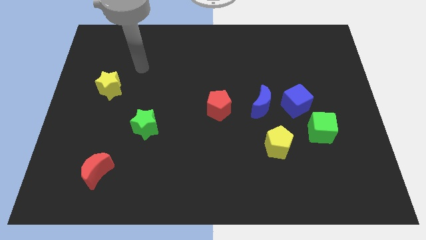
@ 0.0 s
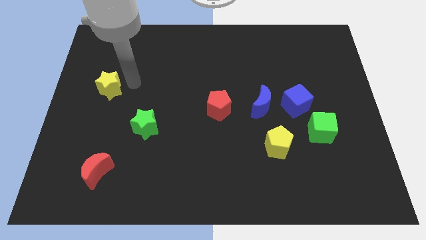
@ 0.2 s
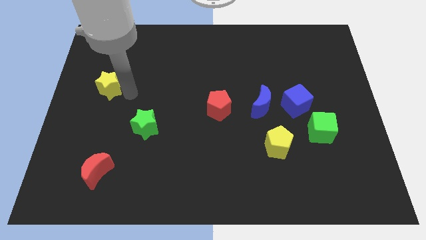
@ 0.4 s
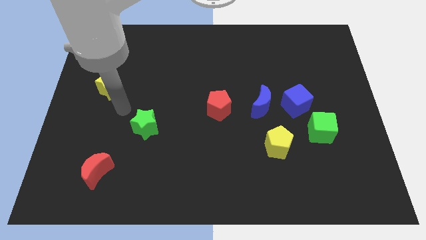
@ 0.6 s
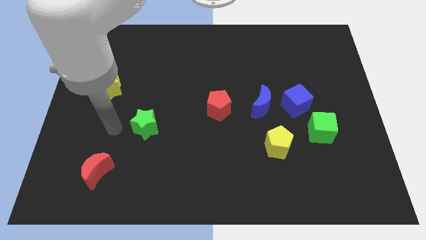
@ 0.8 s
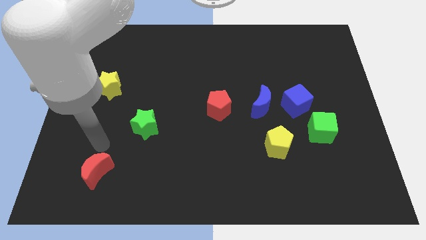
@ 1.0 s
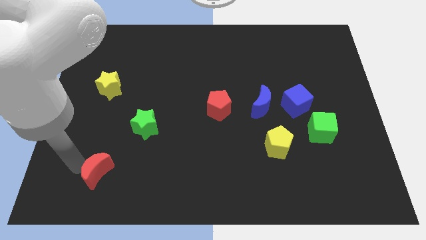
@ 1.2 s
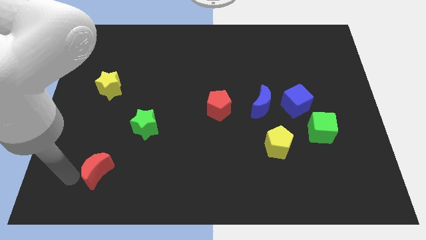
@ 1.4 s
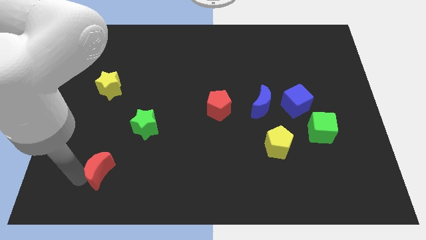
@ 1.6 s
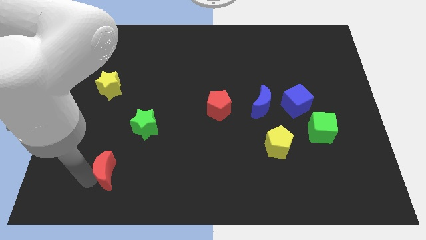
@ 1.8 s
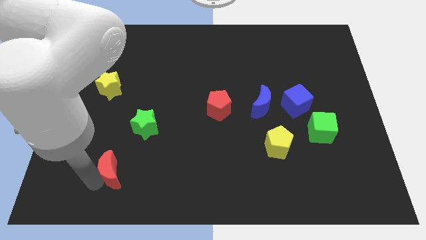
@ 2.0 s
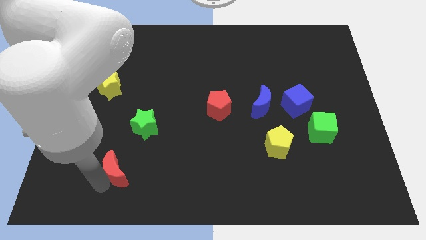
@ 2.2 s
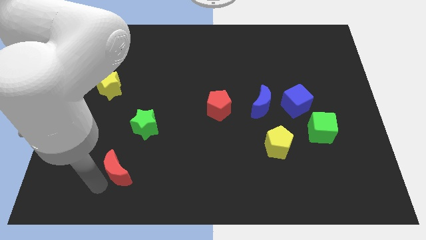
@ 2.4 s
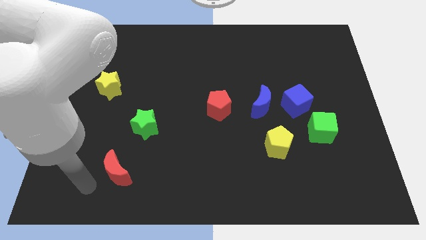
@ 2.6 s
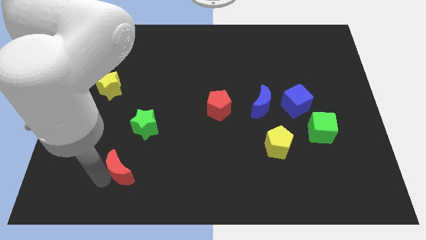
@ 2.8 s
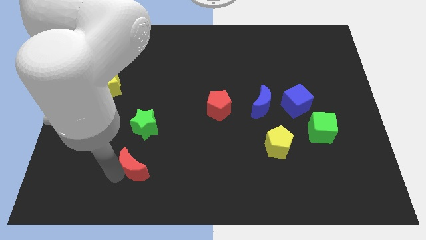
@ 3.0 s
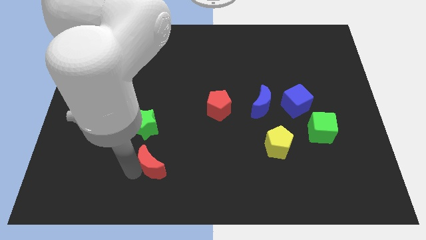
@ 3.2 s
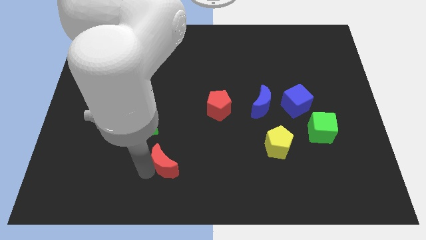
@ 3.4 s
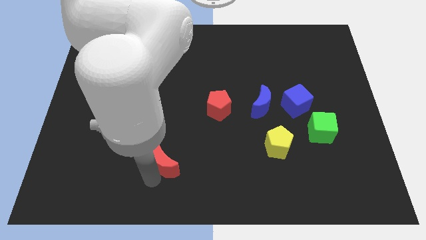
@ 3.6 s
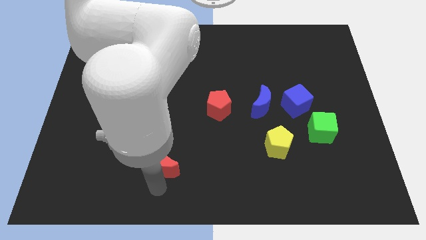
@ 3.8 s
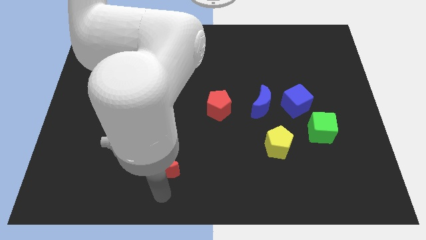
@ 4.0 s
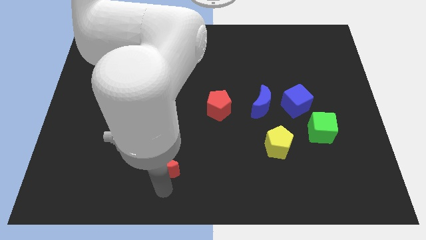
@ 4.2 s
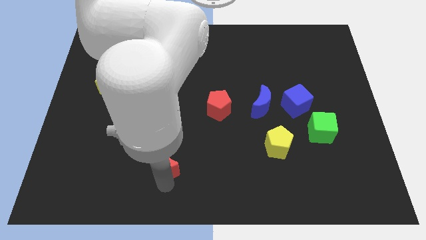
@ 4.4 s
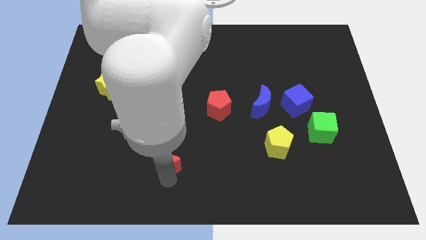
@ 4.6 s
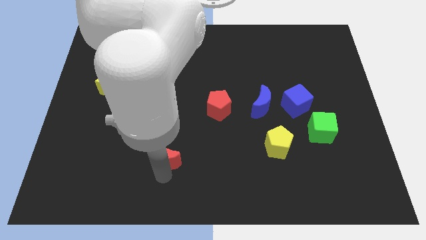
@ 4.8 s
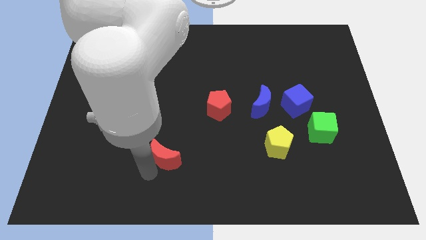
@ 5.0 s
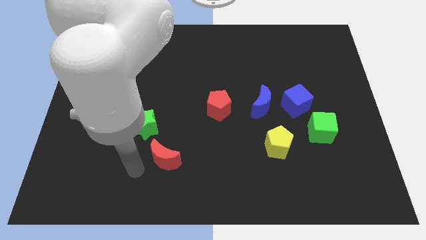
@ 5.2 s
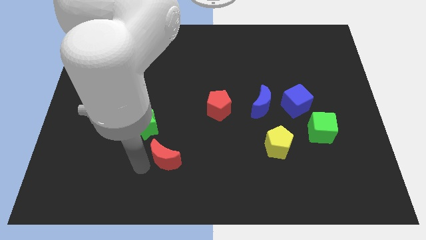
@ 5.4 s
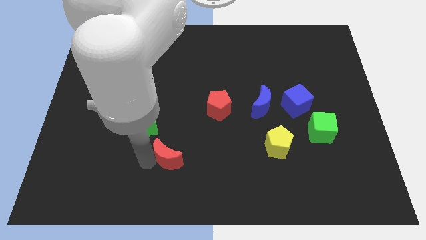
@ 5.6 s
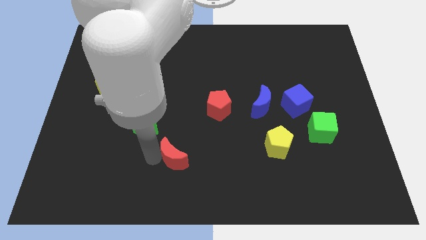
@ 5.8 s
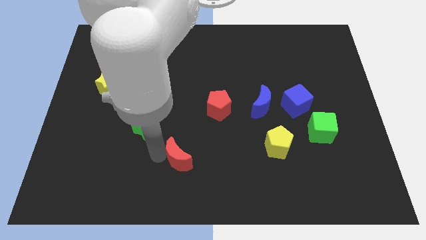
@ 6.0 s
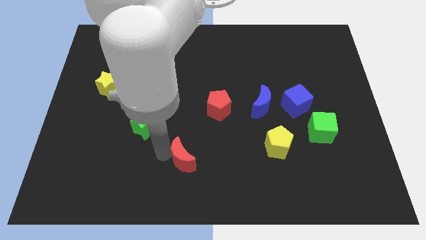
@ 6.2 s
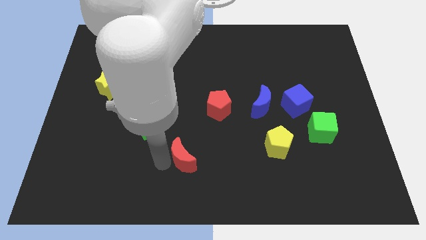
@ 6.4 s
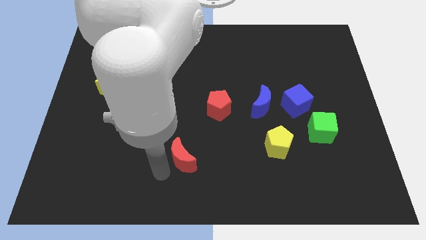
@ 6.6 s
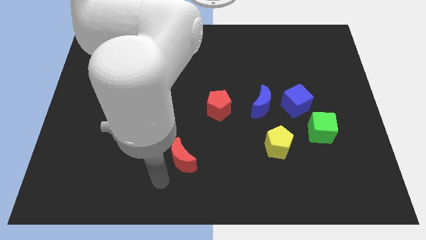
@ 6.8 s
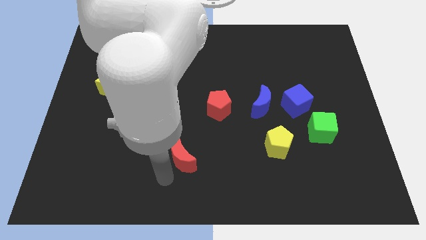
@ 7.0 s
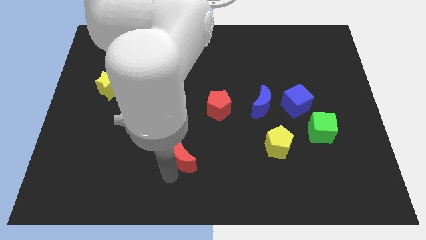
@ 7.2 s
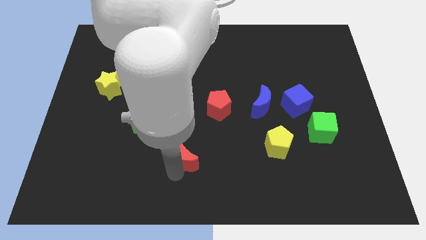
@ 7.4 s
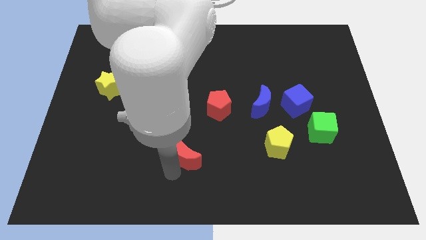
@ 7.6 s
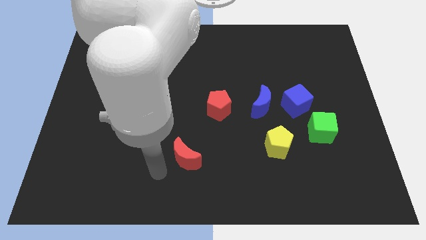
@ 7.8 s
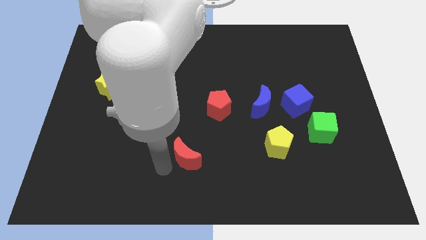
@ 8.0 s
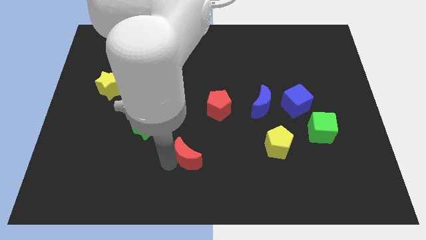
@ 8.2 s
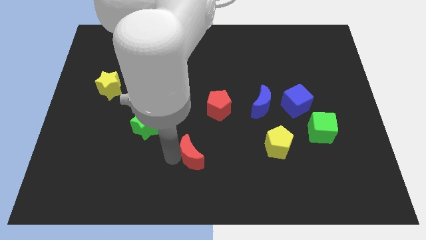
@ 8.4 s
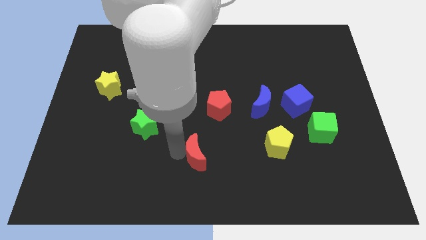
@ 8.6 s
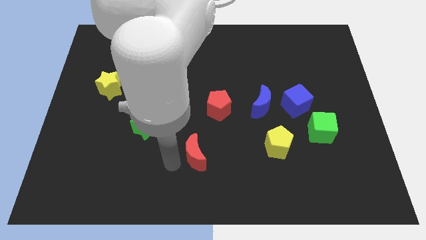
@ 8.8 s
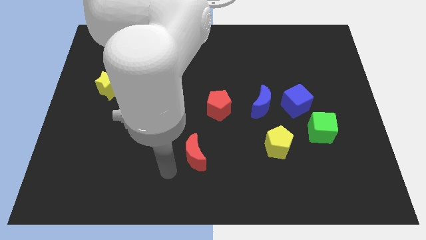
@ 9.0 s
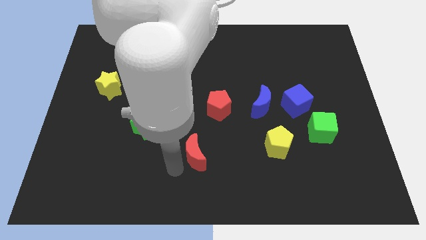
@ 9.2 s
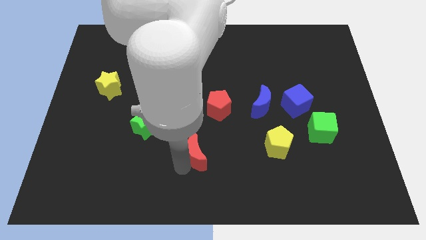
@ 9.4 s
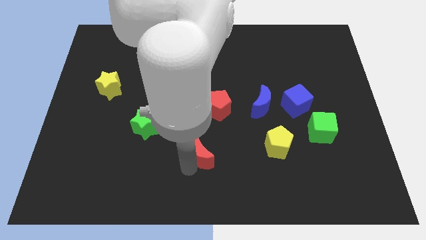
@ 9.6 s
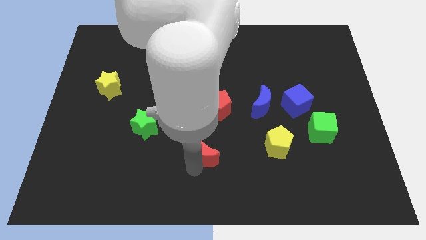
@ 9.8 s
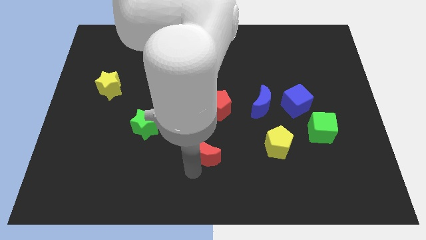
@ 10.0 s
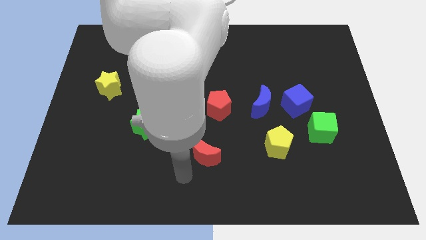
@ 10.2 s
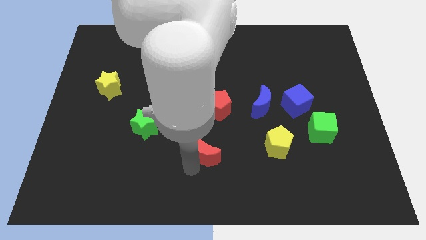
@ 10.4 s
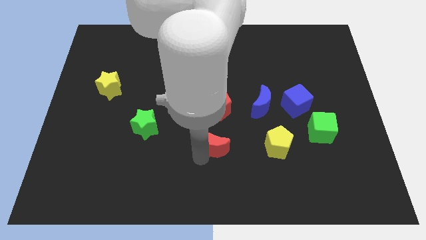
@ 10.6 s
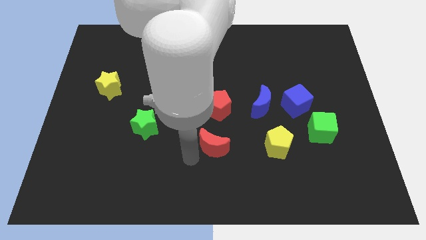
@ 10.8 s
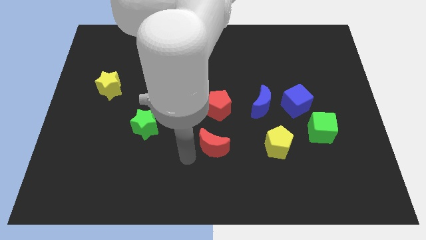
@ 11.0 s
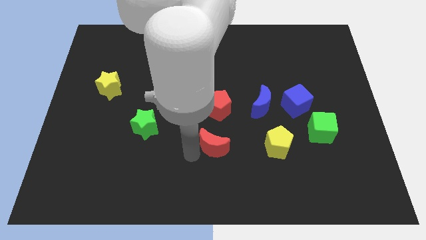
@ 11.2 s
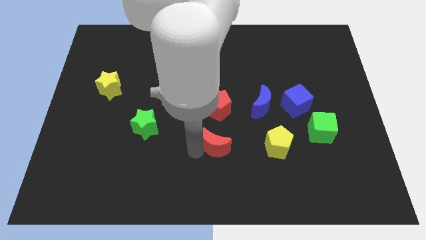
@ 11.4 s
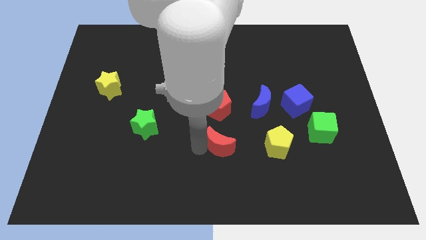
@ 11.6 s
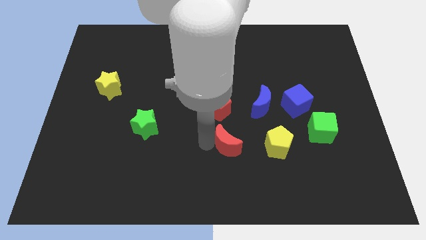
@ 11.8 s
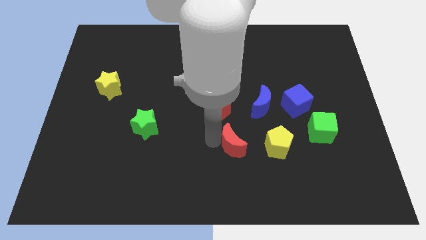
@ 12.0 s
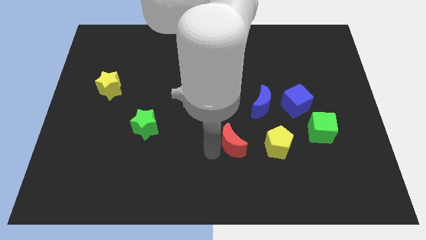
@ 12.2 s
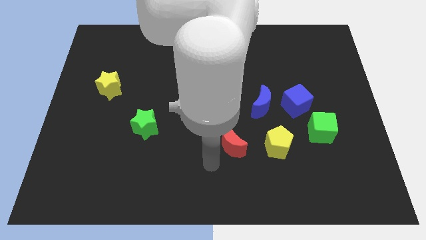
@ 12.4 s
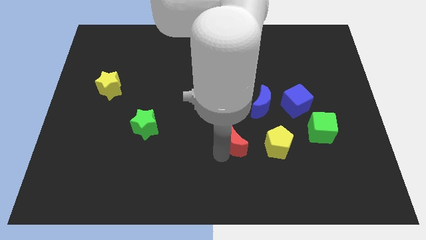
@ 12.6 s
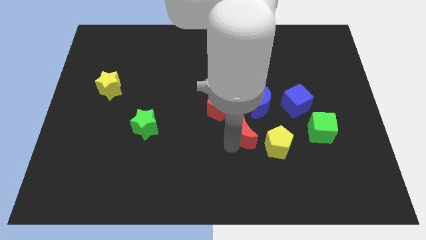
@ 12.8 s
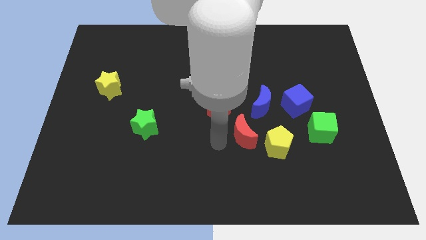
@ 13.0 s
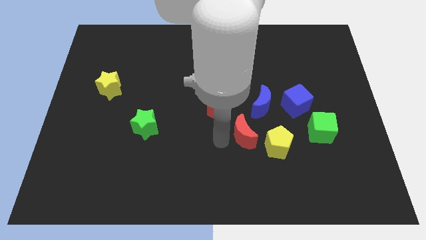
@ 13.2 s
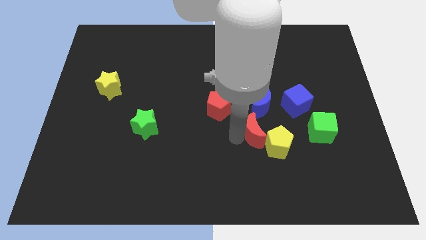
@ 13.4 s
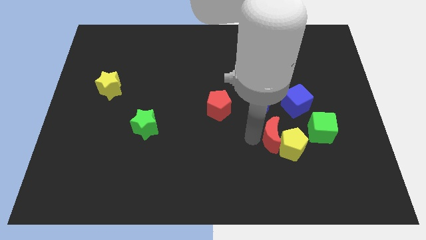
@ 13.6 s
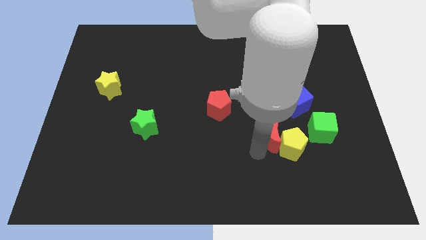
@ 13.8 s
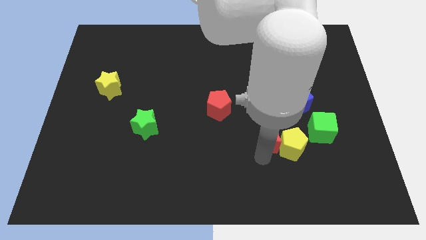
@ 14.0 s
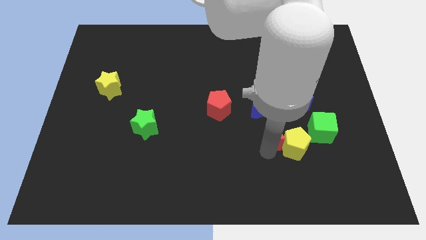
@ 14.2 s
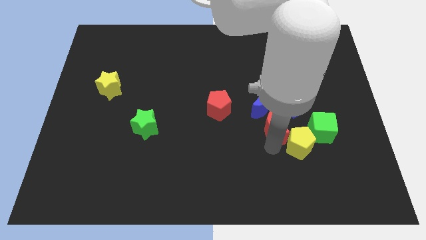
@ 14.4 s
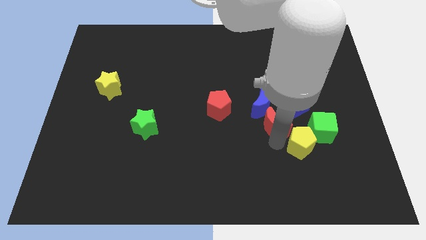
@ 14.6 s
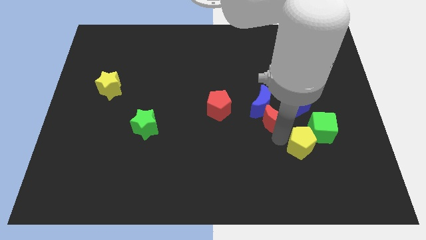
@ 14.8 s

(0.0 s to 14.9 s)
push the red moon to the right side of the red pentagon
